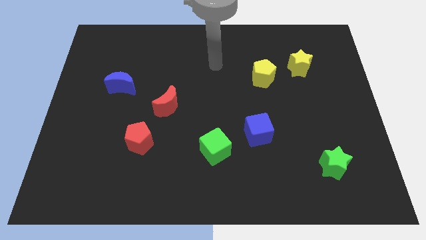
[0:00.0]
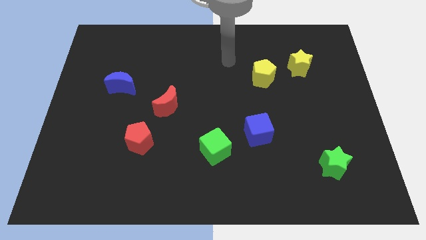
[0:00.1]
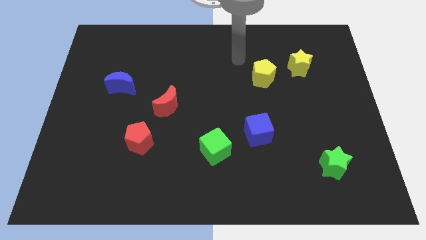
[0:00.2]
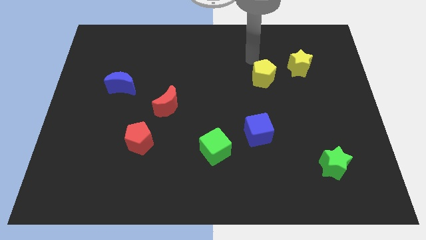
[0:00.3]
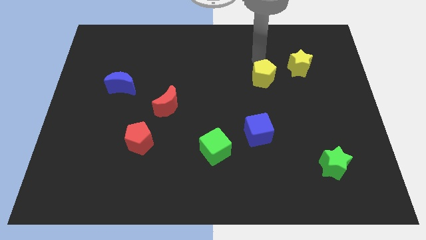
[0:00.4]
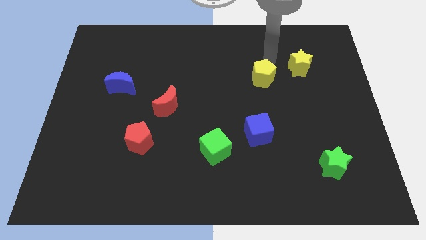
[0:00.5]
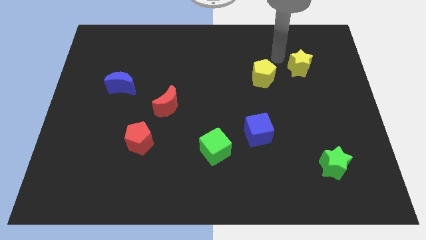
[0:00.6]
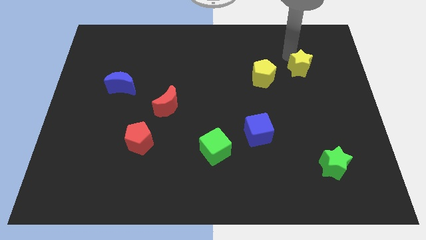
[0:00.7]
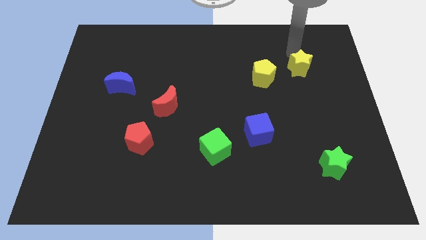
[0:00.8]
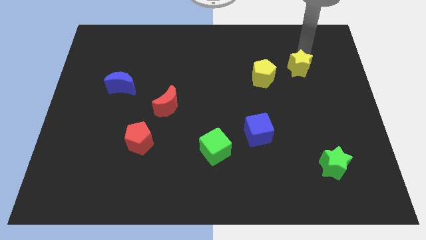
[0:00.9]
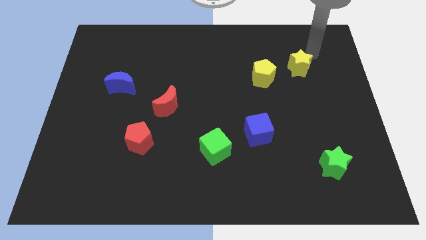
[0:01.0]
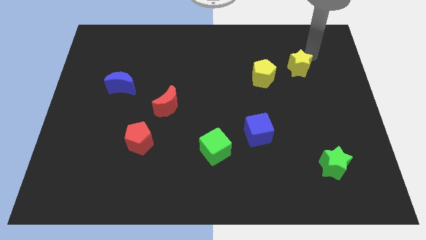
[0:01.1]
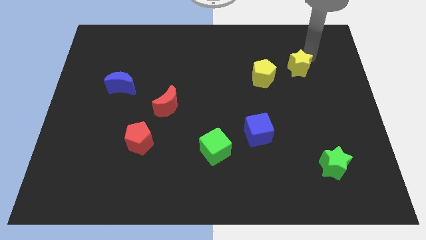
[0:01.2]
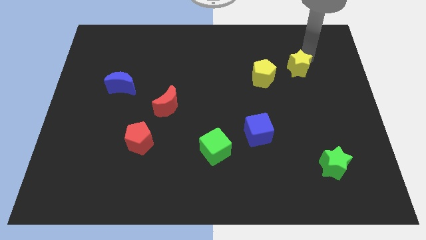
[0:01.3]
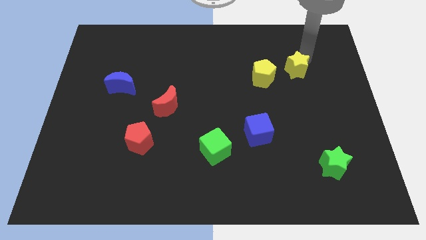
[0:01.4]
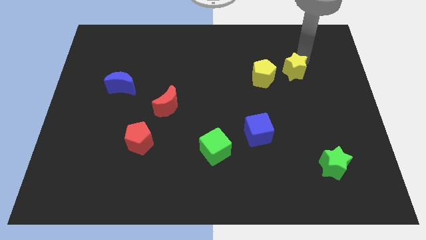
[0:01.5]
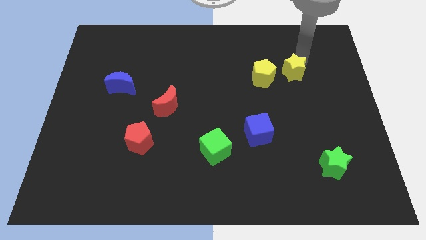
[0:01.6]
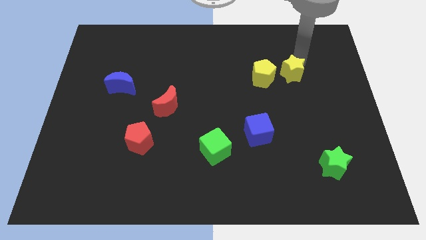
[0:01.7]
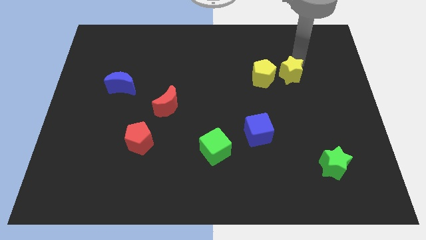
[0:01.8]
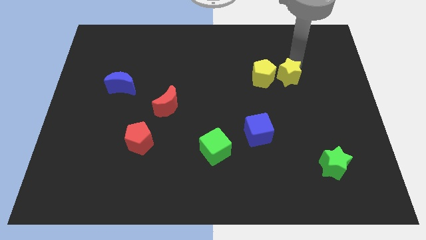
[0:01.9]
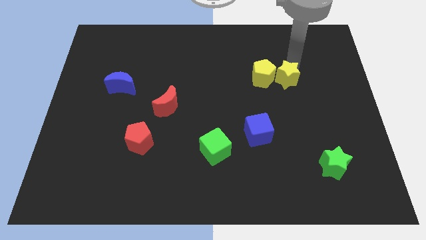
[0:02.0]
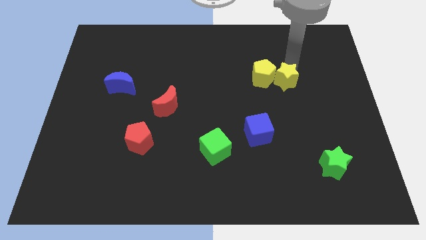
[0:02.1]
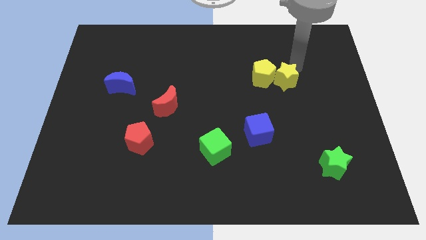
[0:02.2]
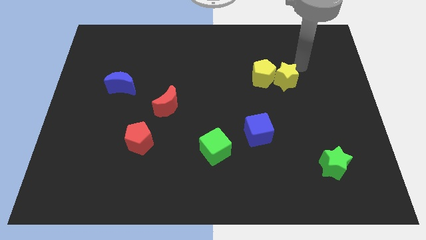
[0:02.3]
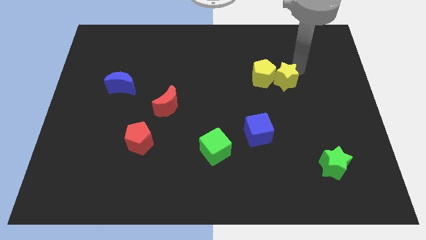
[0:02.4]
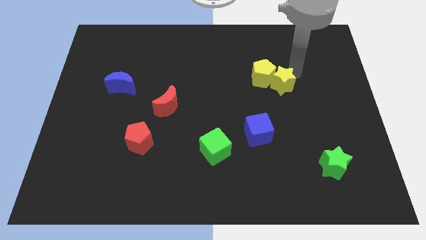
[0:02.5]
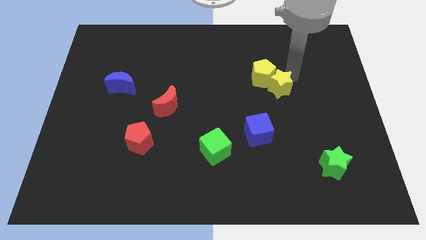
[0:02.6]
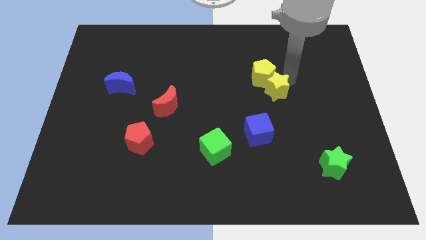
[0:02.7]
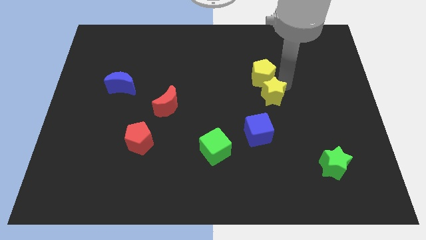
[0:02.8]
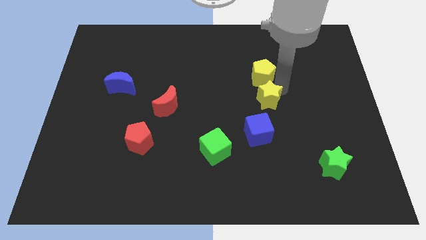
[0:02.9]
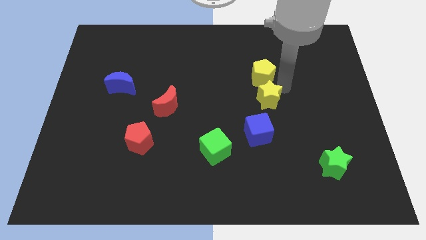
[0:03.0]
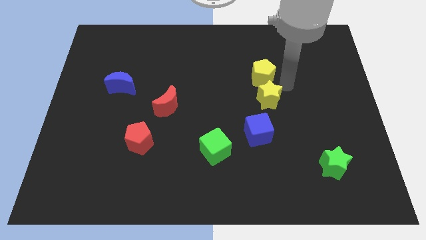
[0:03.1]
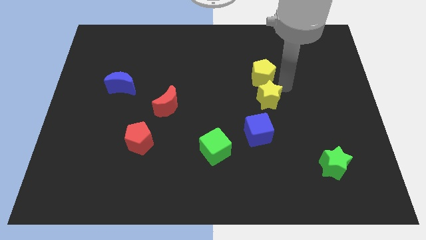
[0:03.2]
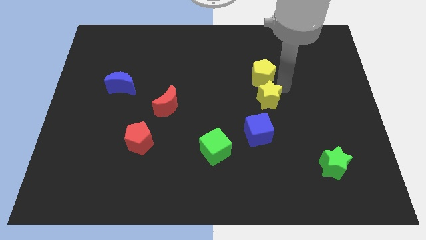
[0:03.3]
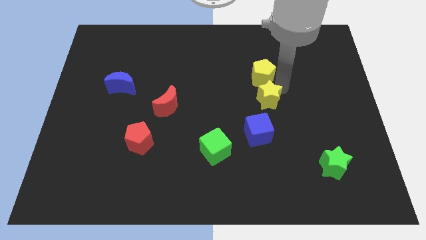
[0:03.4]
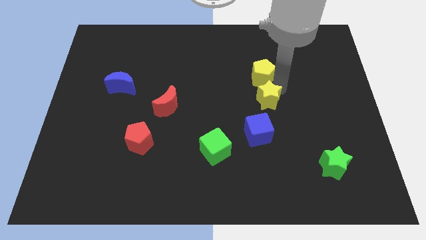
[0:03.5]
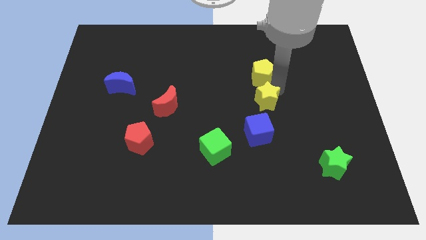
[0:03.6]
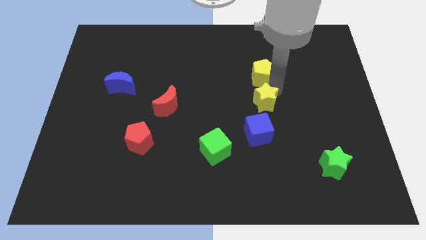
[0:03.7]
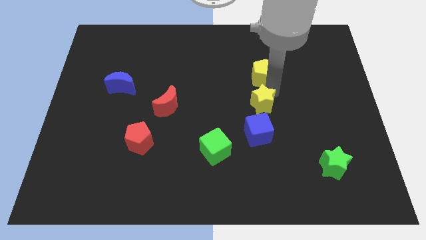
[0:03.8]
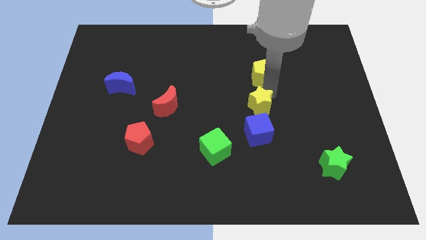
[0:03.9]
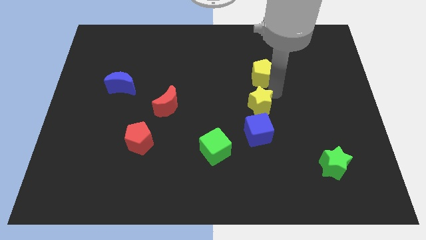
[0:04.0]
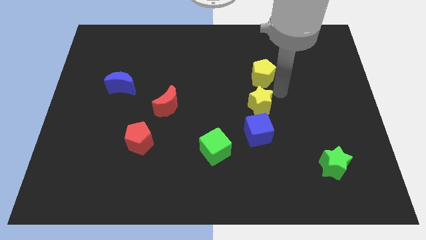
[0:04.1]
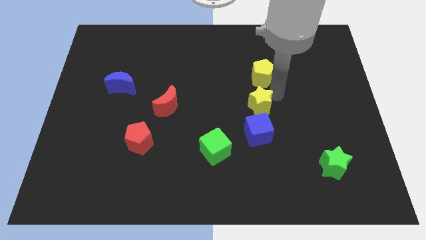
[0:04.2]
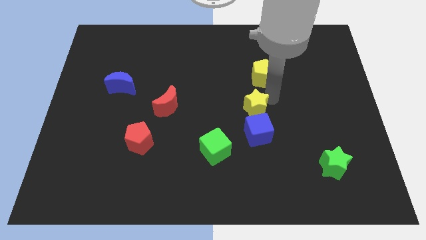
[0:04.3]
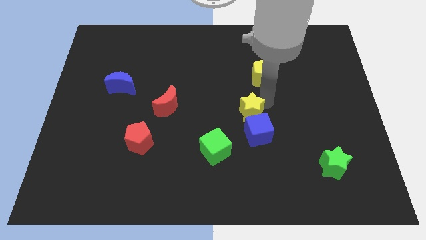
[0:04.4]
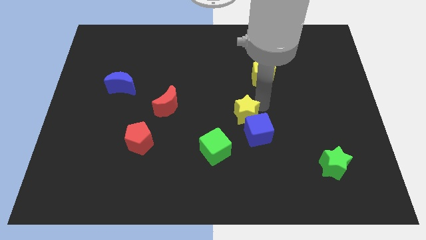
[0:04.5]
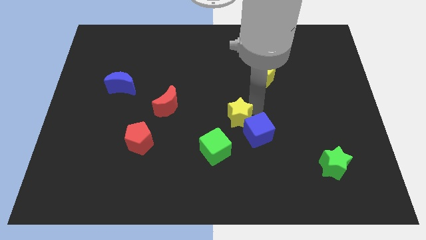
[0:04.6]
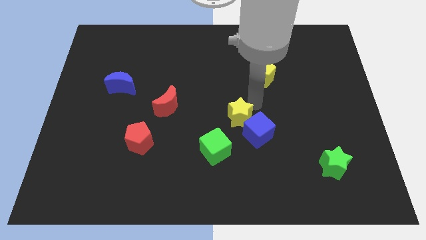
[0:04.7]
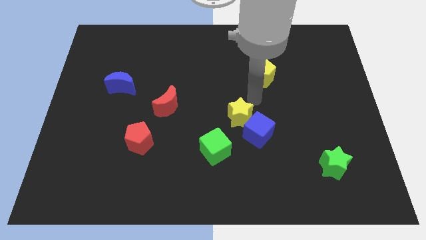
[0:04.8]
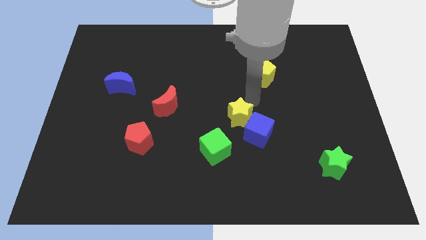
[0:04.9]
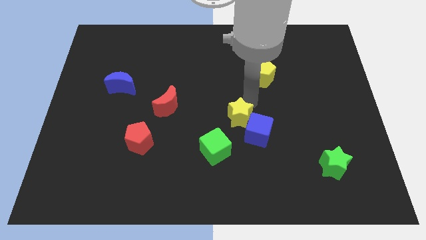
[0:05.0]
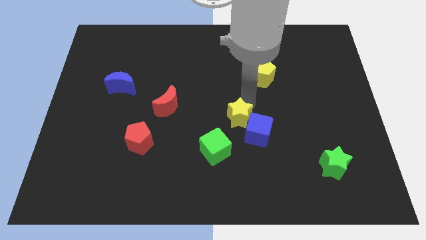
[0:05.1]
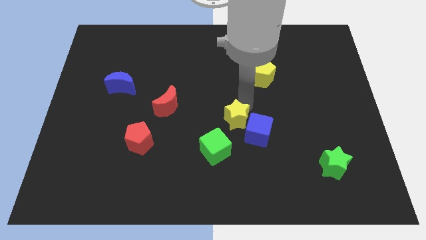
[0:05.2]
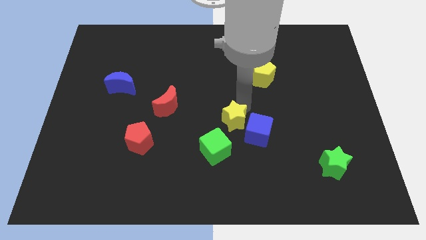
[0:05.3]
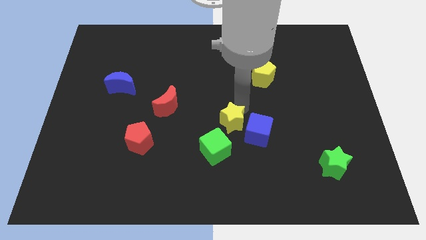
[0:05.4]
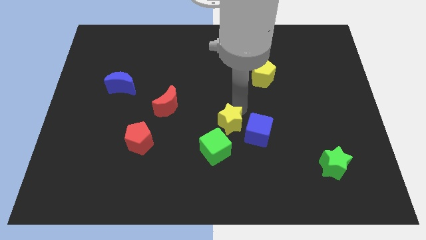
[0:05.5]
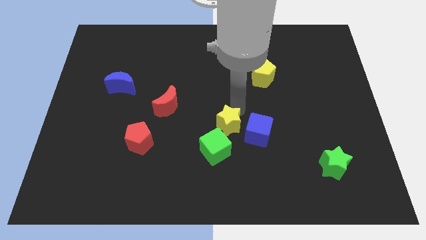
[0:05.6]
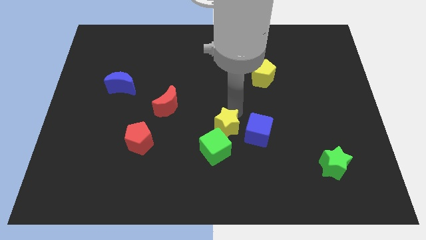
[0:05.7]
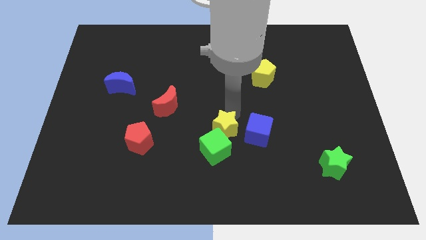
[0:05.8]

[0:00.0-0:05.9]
slide the yellow star to the green cube
